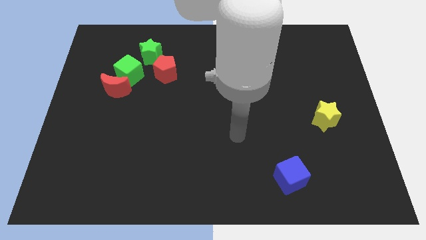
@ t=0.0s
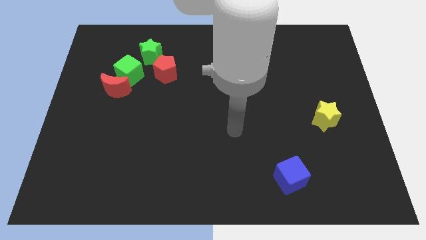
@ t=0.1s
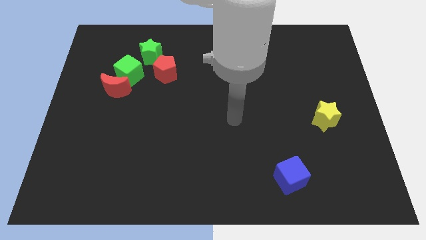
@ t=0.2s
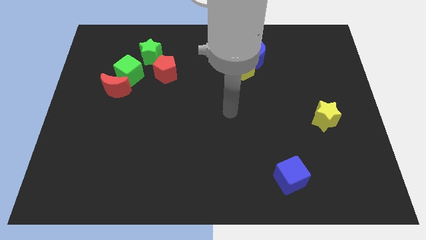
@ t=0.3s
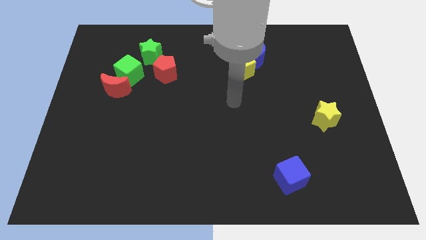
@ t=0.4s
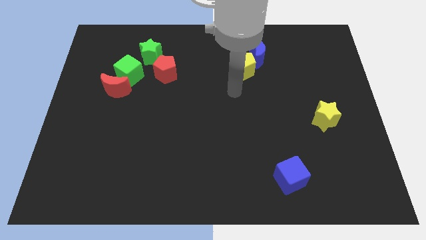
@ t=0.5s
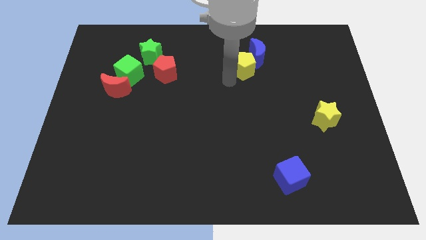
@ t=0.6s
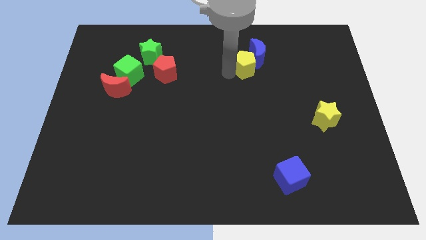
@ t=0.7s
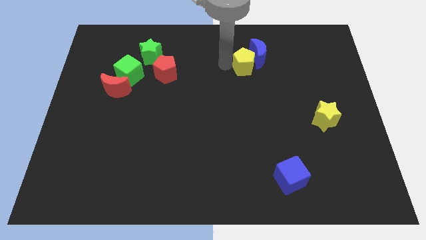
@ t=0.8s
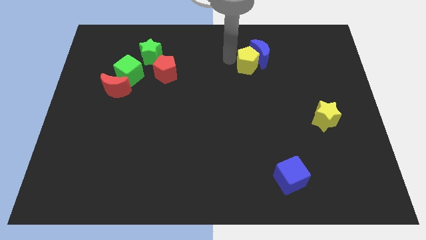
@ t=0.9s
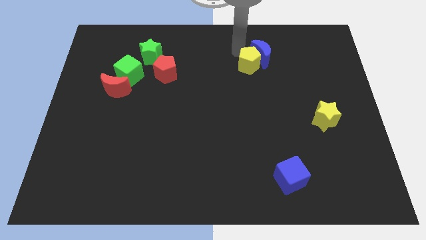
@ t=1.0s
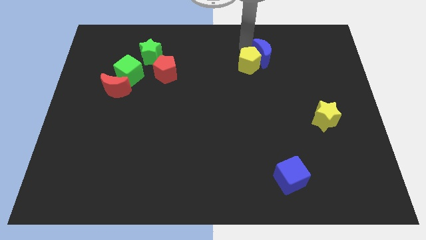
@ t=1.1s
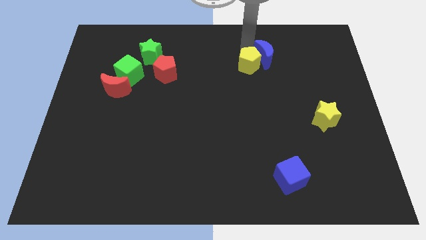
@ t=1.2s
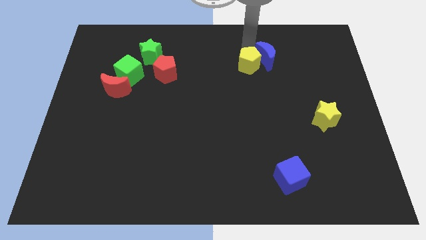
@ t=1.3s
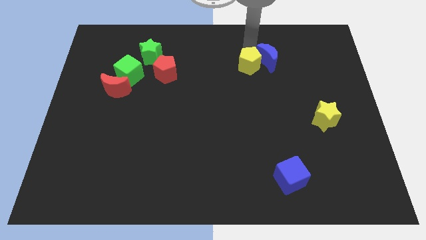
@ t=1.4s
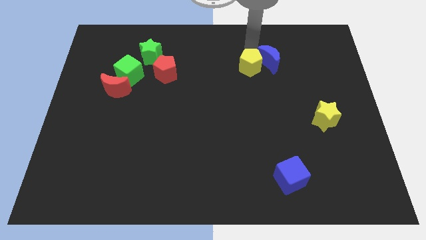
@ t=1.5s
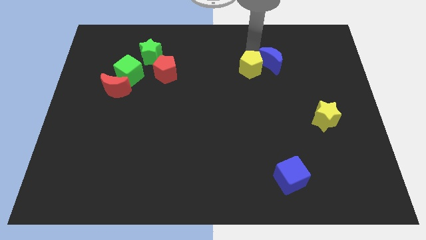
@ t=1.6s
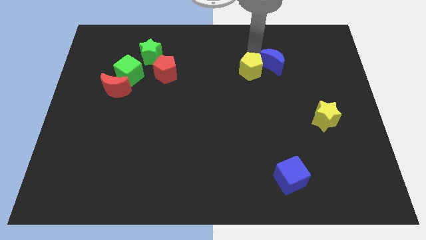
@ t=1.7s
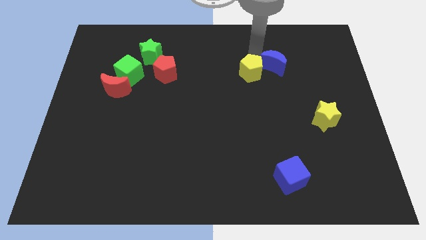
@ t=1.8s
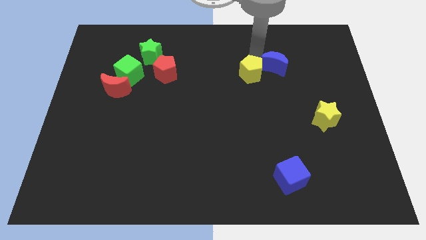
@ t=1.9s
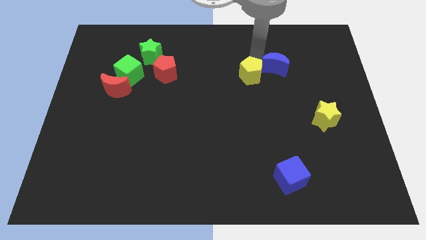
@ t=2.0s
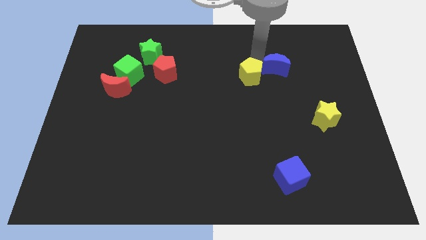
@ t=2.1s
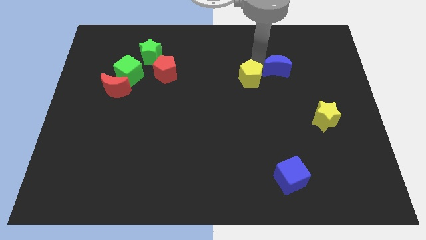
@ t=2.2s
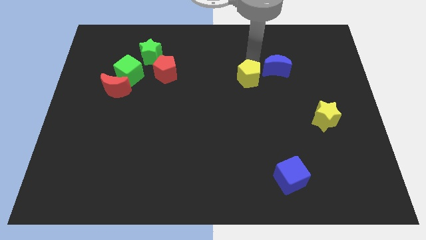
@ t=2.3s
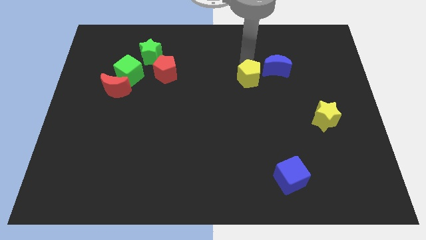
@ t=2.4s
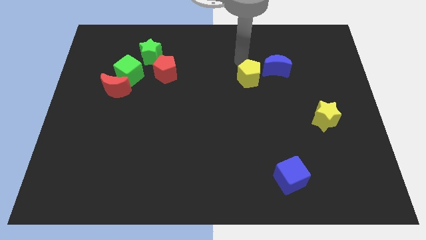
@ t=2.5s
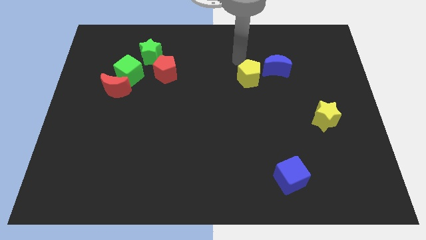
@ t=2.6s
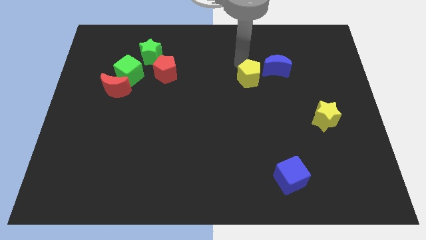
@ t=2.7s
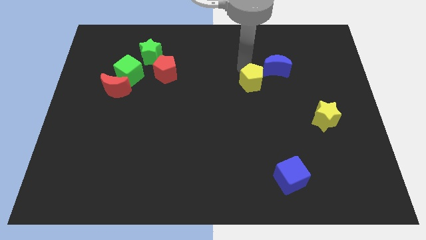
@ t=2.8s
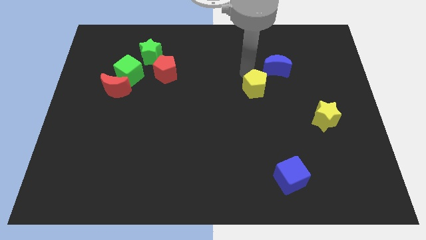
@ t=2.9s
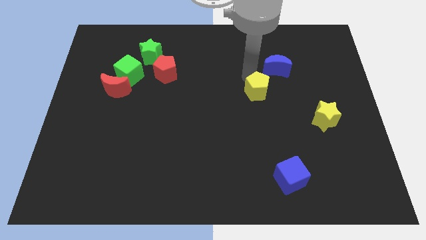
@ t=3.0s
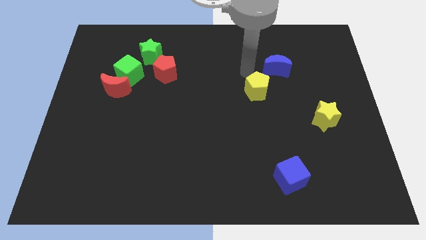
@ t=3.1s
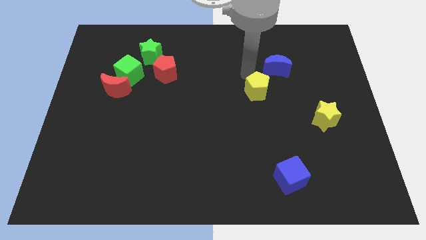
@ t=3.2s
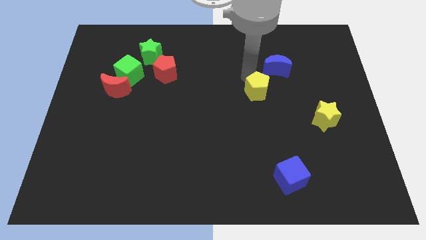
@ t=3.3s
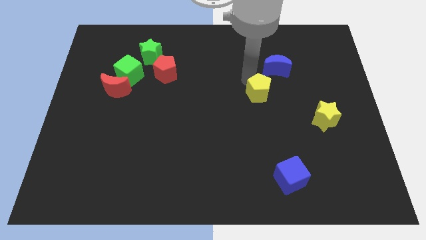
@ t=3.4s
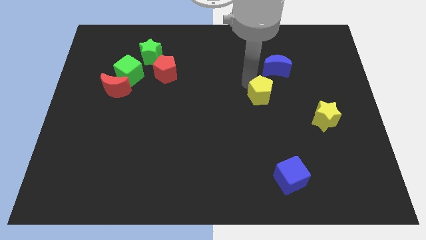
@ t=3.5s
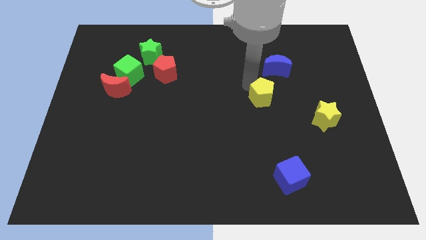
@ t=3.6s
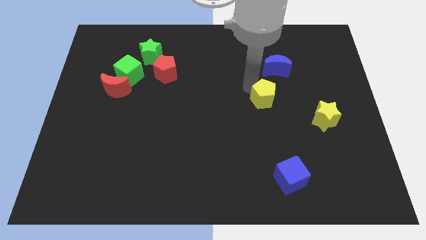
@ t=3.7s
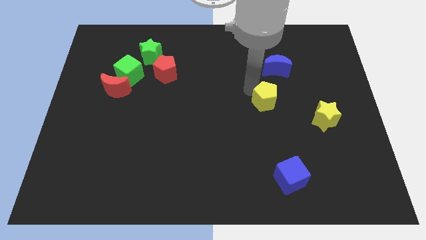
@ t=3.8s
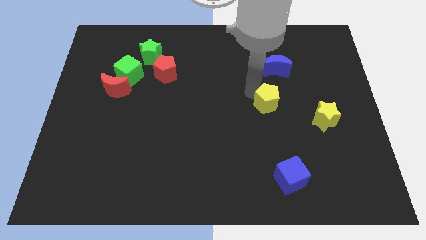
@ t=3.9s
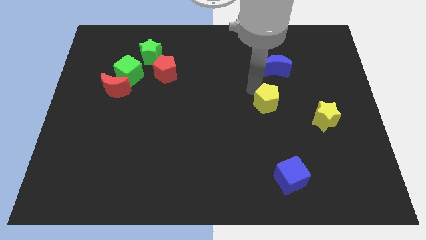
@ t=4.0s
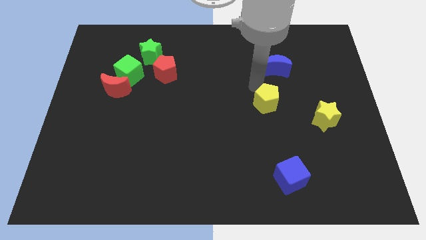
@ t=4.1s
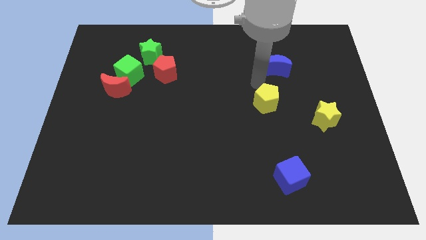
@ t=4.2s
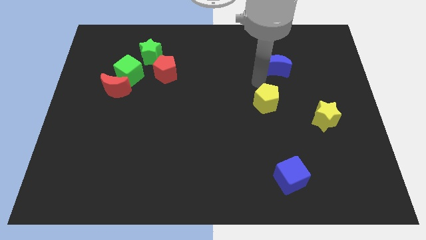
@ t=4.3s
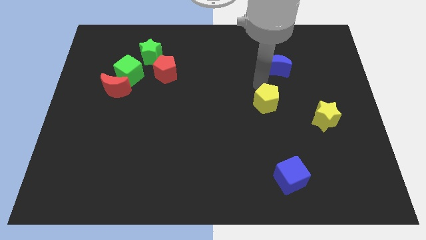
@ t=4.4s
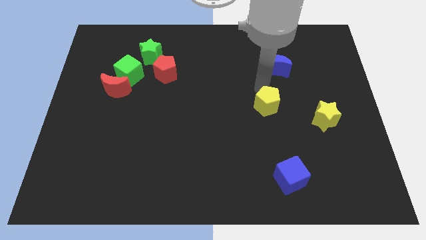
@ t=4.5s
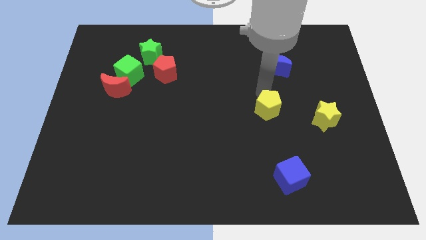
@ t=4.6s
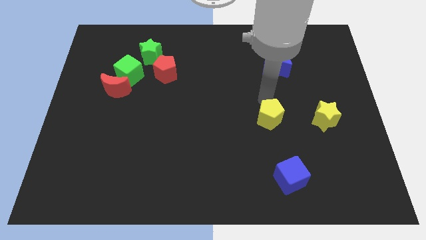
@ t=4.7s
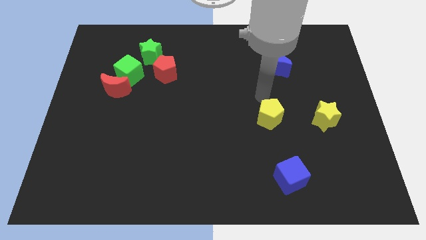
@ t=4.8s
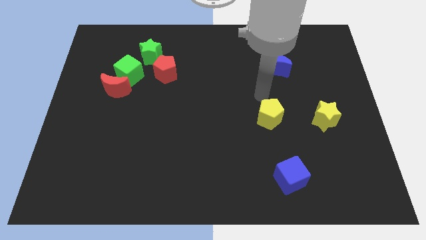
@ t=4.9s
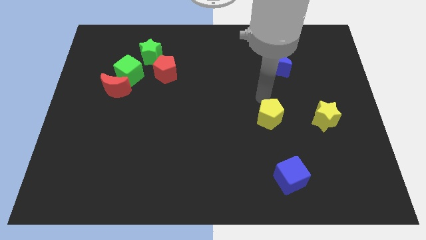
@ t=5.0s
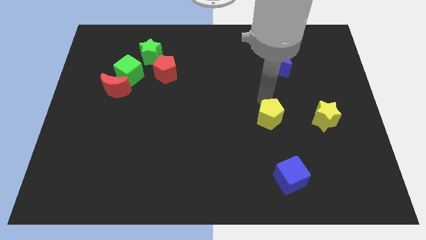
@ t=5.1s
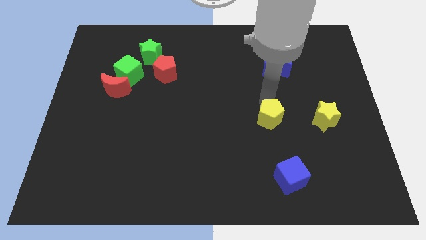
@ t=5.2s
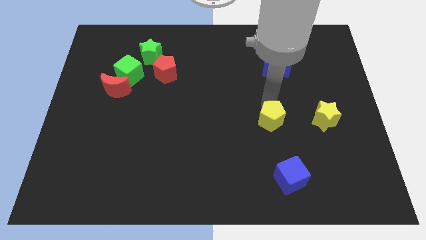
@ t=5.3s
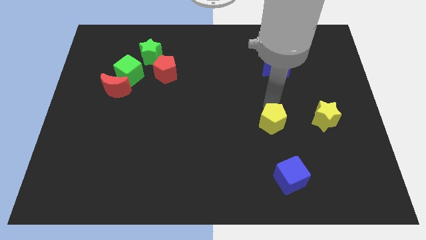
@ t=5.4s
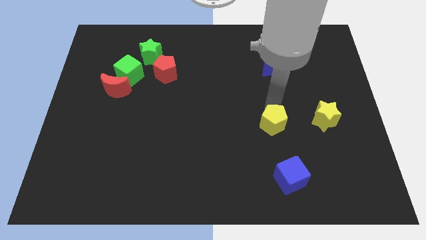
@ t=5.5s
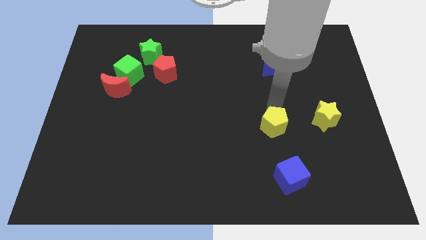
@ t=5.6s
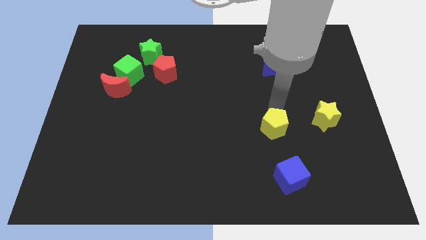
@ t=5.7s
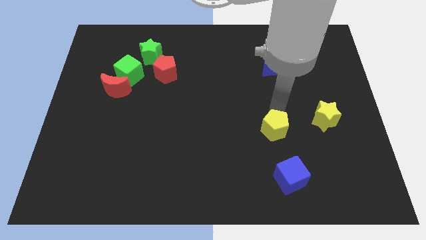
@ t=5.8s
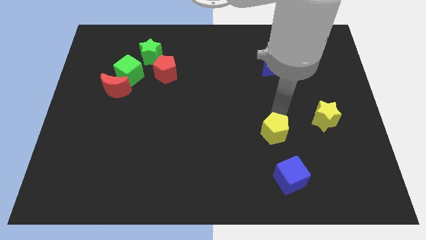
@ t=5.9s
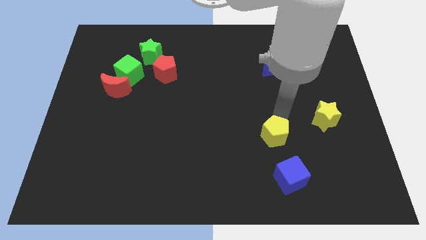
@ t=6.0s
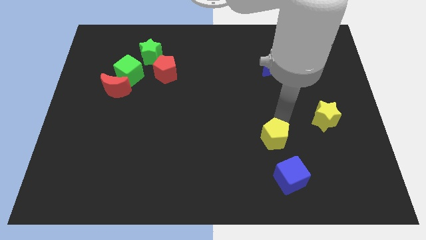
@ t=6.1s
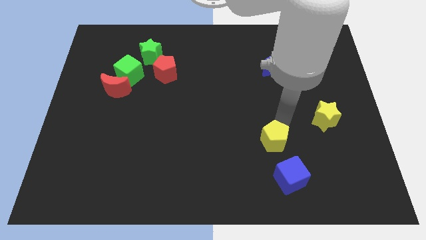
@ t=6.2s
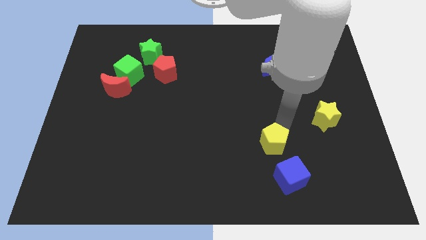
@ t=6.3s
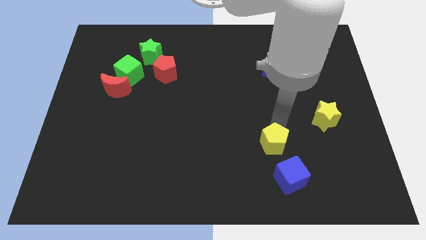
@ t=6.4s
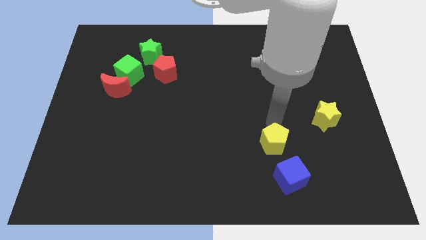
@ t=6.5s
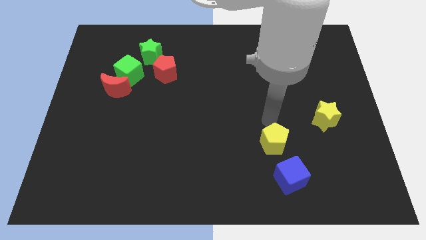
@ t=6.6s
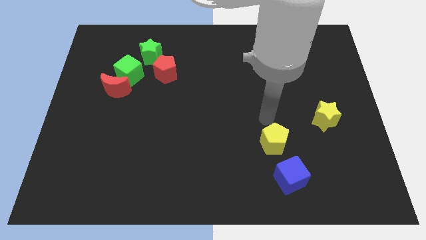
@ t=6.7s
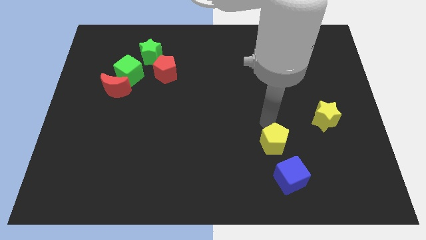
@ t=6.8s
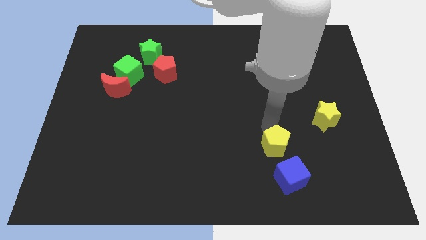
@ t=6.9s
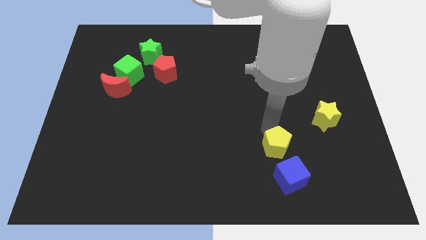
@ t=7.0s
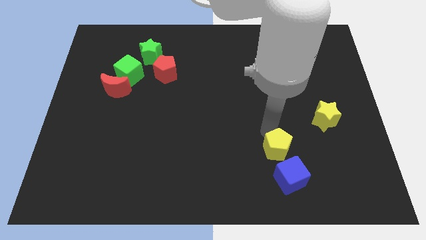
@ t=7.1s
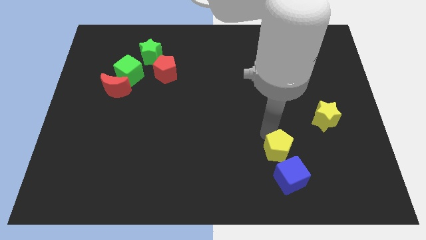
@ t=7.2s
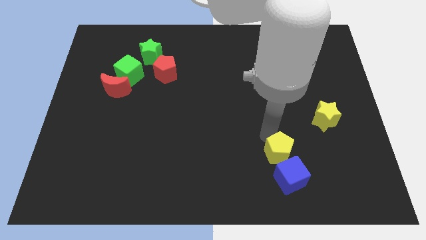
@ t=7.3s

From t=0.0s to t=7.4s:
push the yellow pentagon to the blue cube
